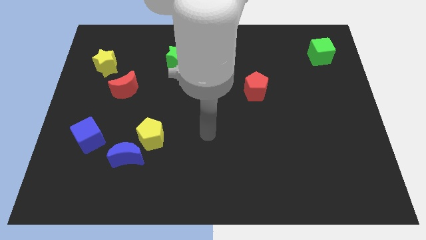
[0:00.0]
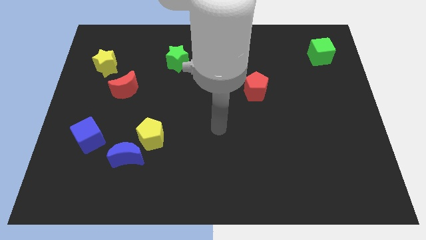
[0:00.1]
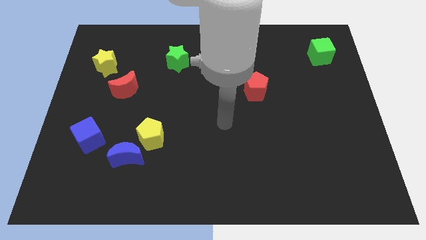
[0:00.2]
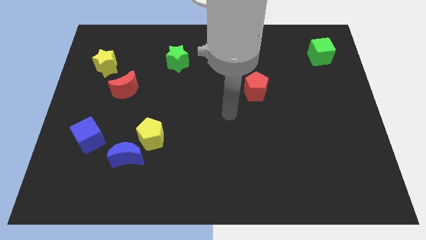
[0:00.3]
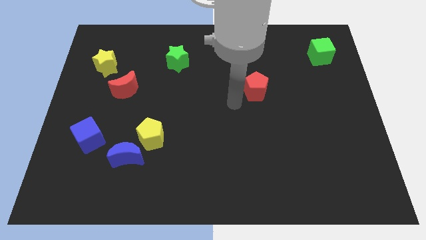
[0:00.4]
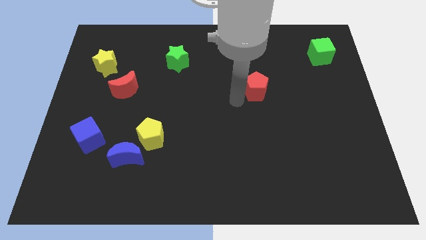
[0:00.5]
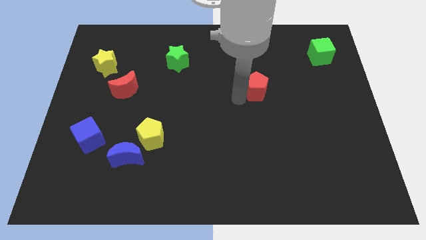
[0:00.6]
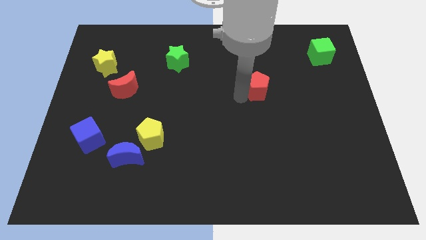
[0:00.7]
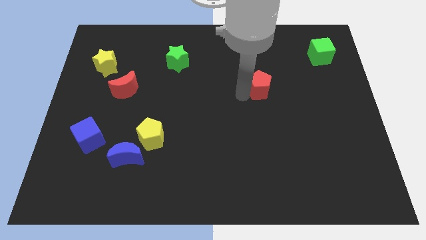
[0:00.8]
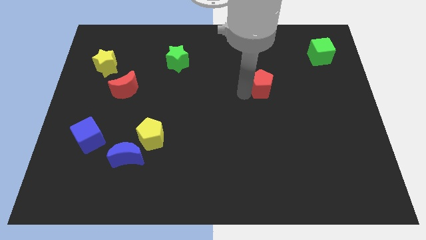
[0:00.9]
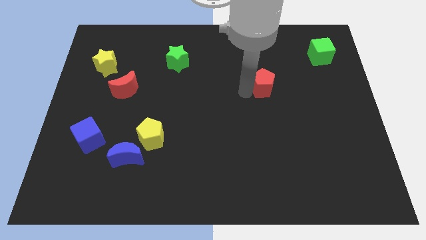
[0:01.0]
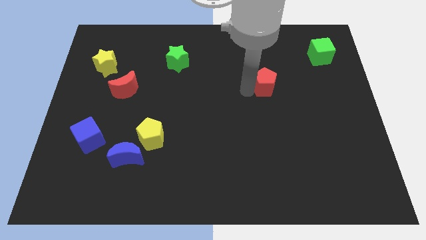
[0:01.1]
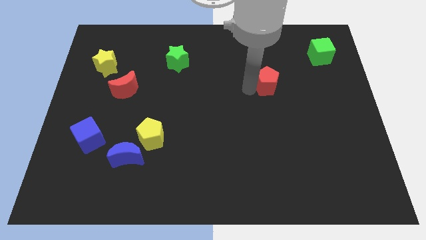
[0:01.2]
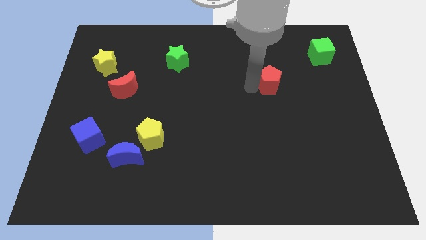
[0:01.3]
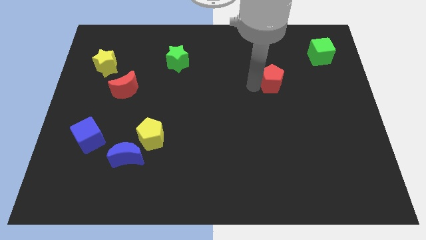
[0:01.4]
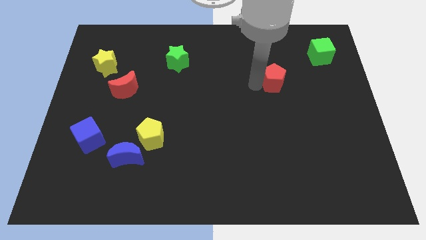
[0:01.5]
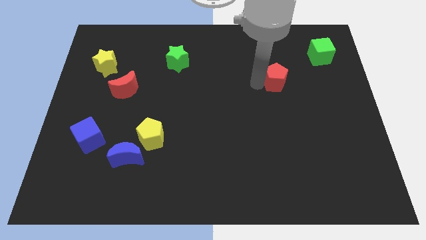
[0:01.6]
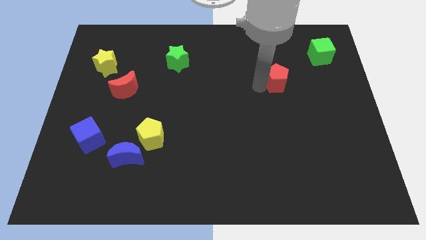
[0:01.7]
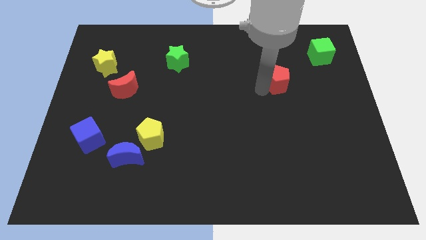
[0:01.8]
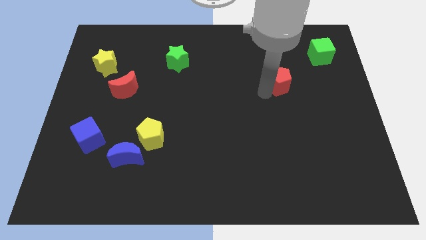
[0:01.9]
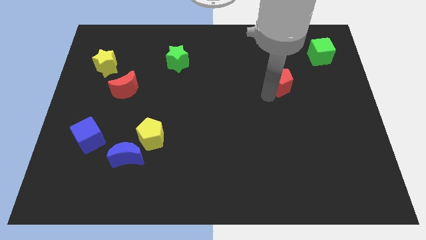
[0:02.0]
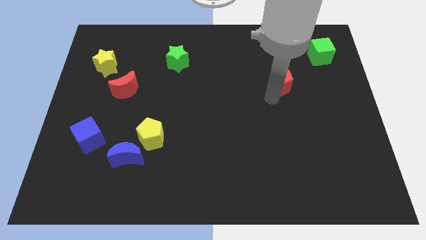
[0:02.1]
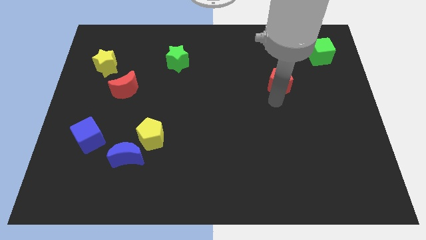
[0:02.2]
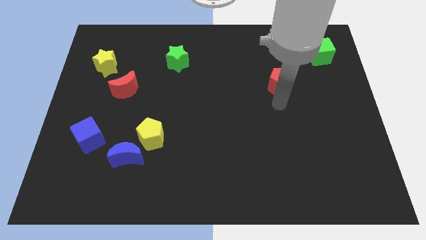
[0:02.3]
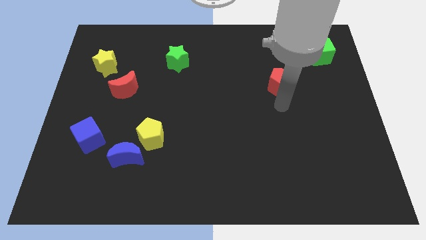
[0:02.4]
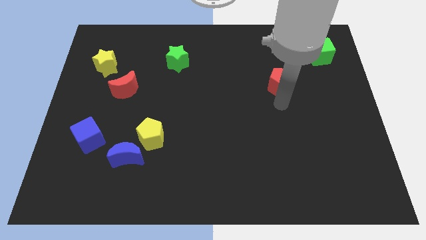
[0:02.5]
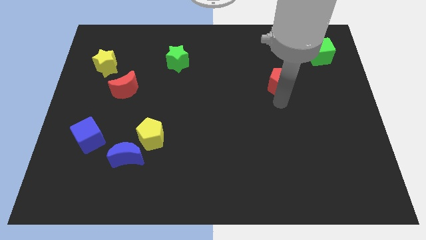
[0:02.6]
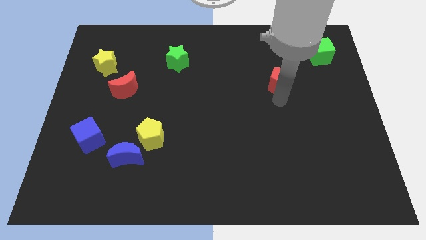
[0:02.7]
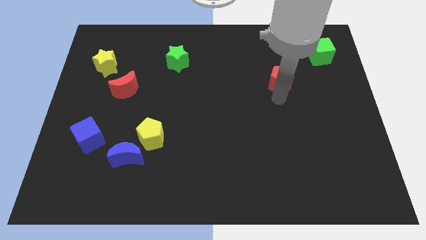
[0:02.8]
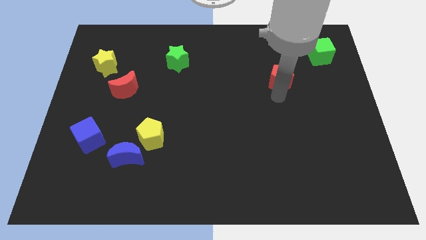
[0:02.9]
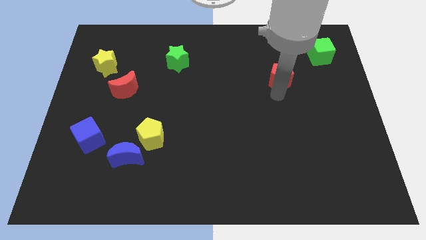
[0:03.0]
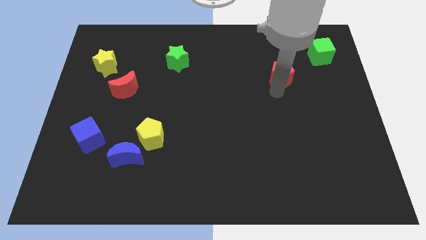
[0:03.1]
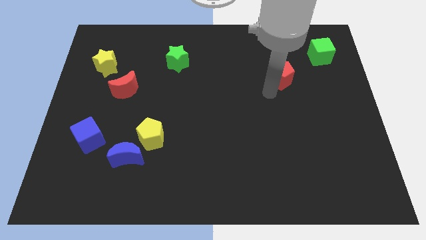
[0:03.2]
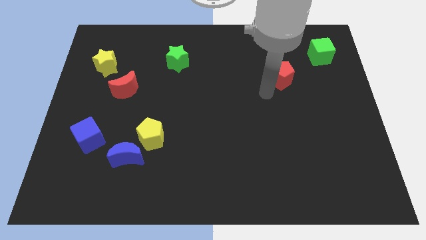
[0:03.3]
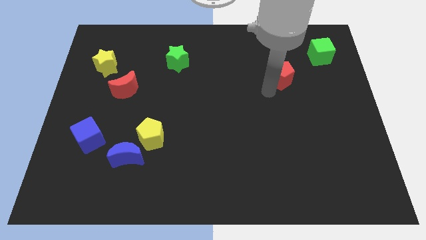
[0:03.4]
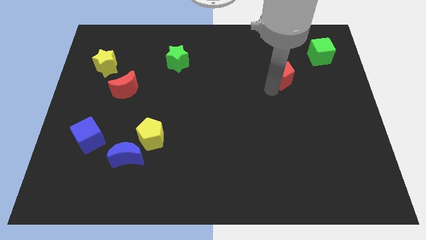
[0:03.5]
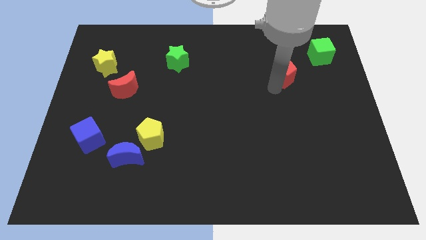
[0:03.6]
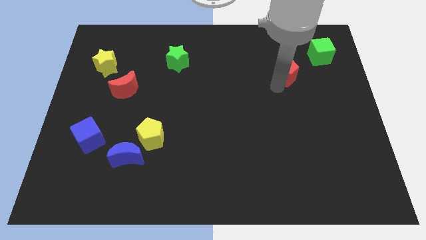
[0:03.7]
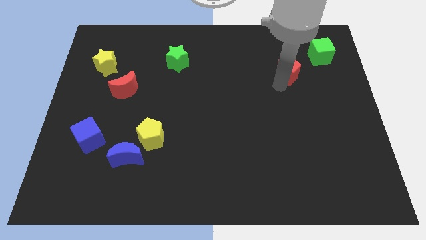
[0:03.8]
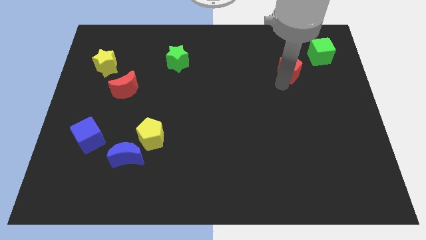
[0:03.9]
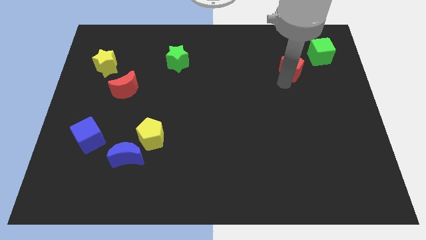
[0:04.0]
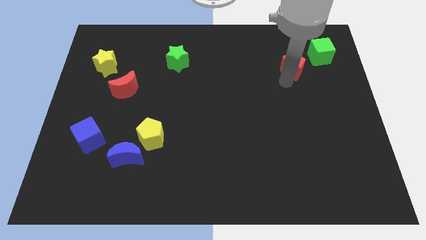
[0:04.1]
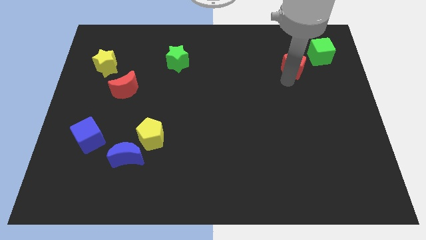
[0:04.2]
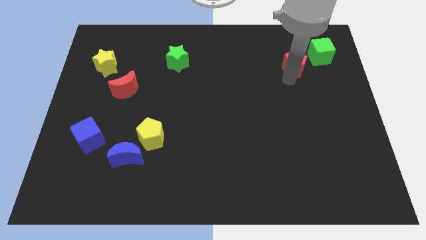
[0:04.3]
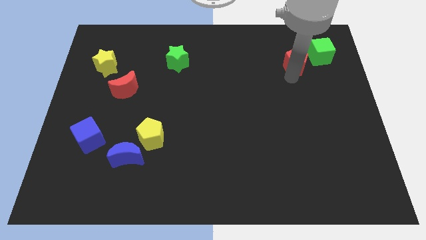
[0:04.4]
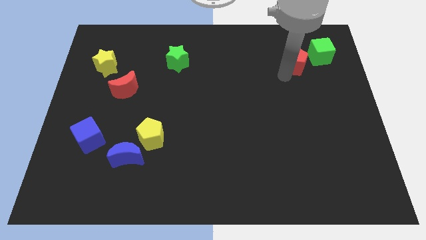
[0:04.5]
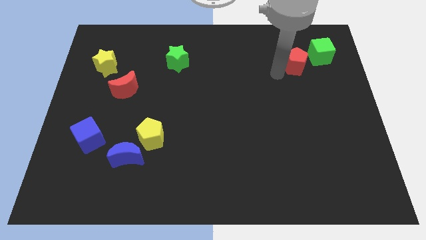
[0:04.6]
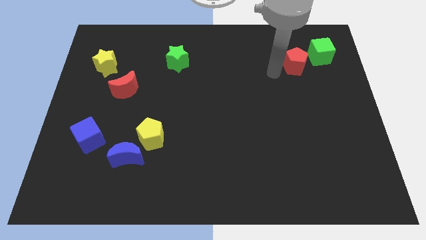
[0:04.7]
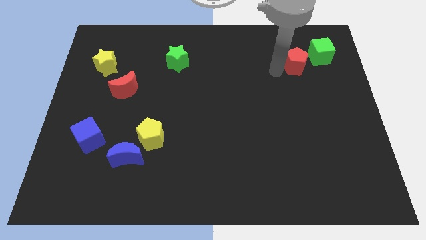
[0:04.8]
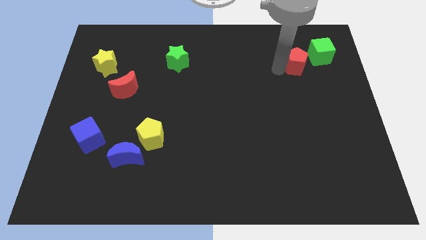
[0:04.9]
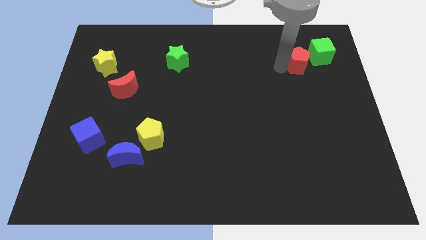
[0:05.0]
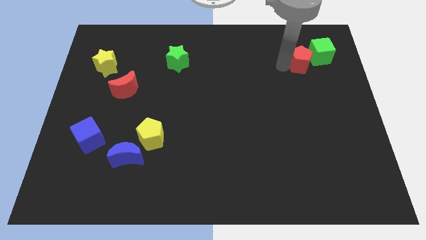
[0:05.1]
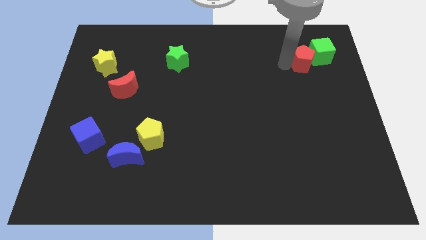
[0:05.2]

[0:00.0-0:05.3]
move the red pentagon to the green cube

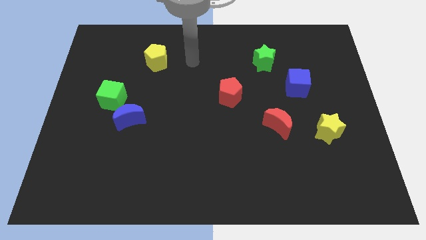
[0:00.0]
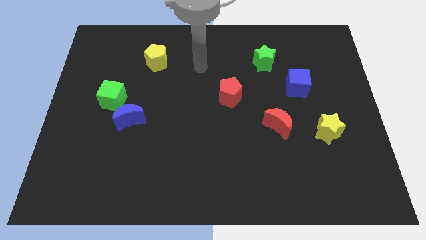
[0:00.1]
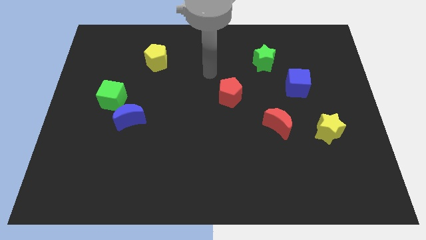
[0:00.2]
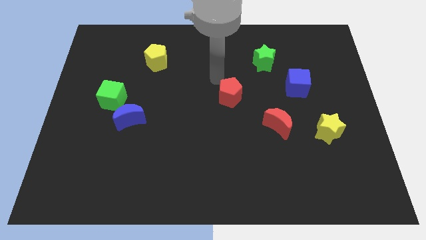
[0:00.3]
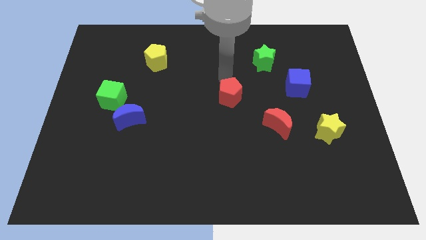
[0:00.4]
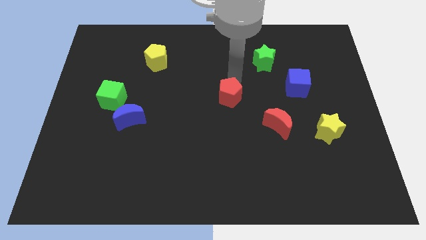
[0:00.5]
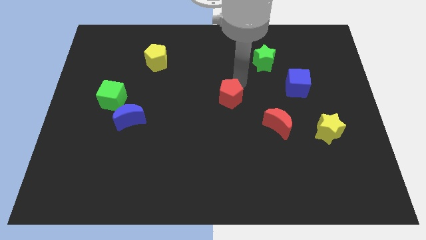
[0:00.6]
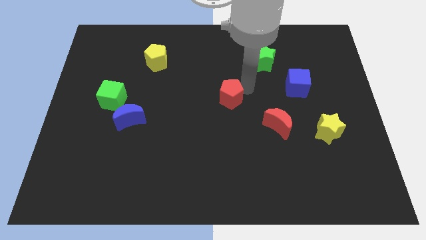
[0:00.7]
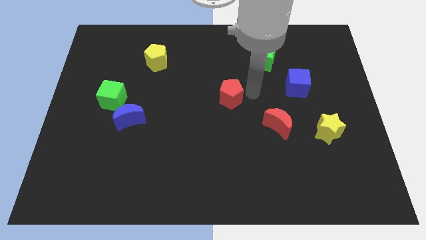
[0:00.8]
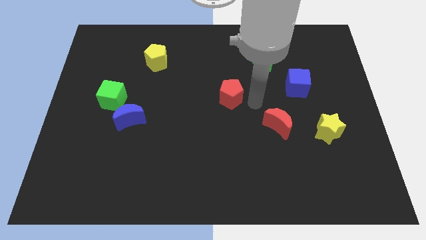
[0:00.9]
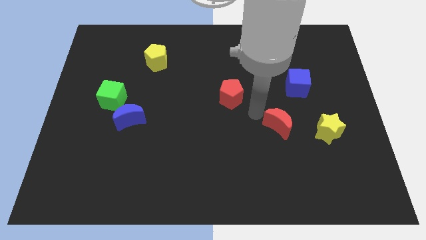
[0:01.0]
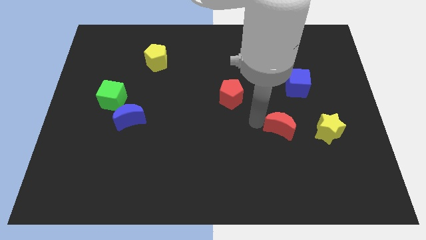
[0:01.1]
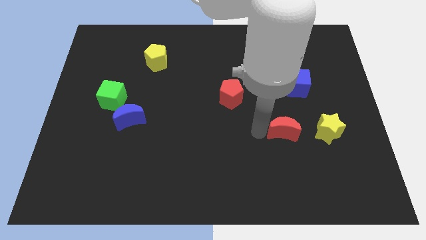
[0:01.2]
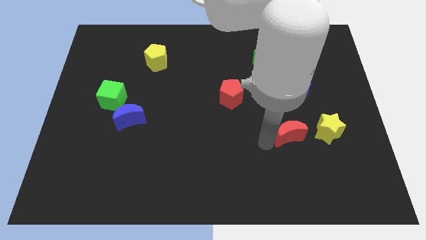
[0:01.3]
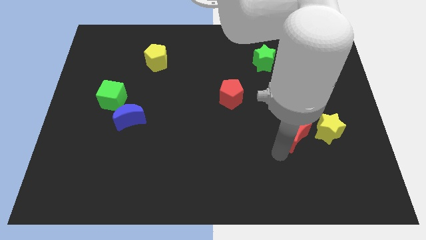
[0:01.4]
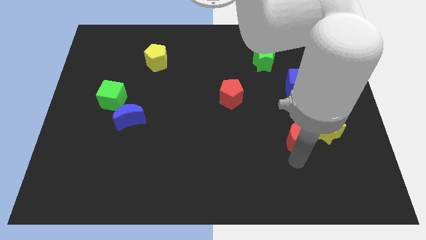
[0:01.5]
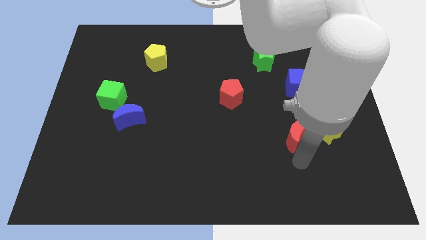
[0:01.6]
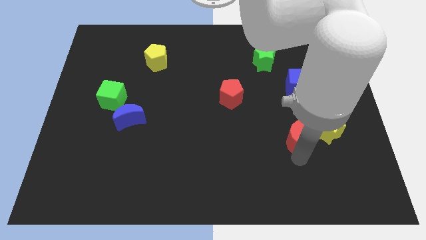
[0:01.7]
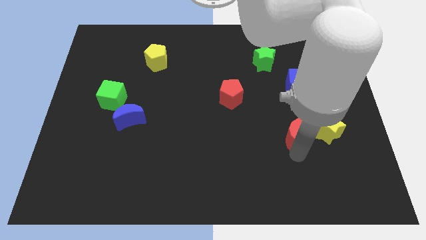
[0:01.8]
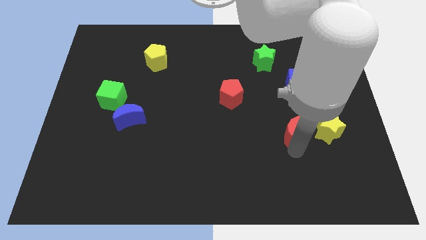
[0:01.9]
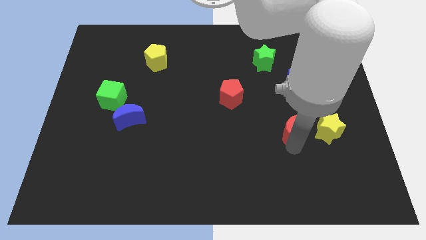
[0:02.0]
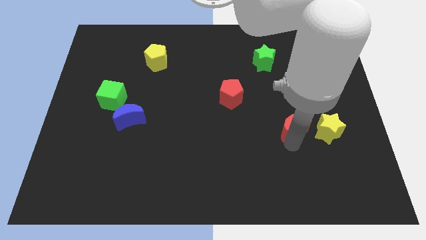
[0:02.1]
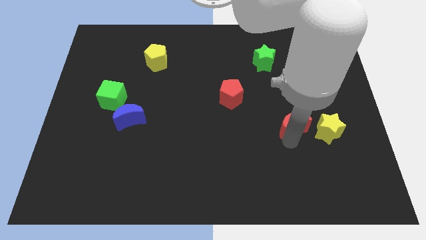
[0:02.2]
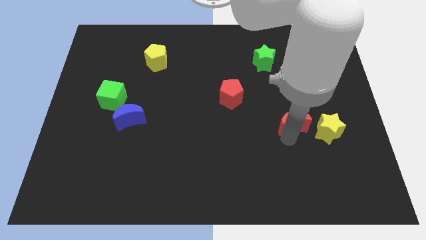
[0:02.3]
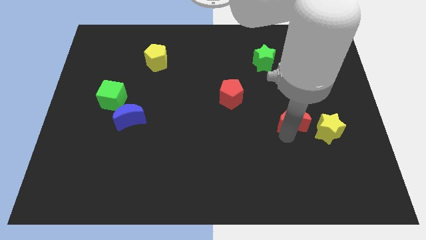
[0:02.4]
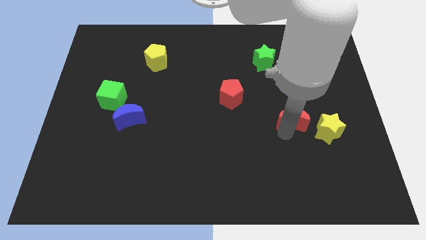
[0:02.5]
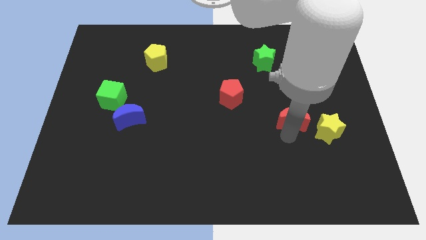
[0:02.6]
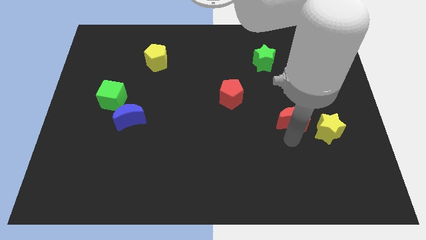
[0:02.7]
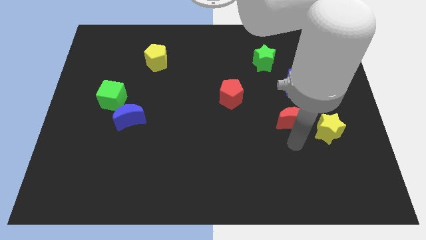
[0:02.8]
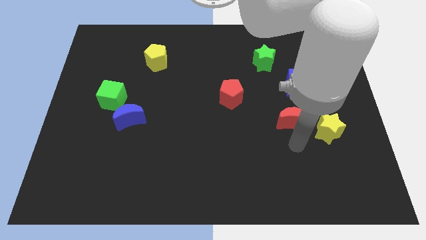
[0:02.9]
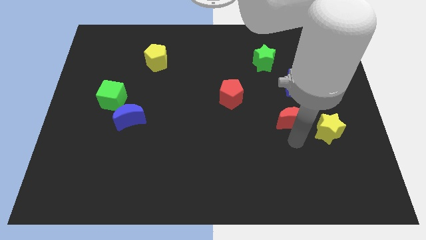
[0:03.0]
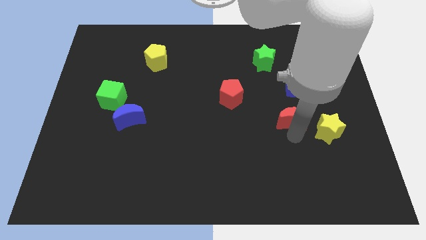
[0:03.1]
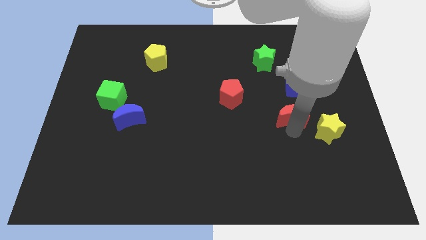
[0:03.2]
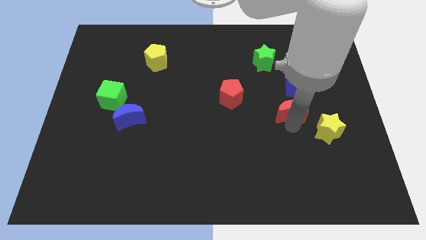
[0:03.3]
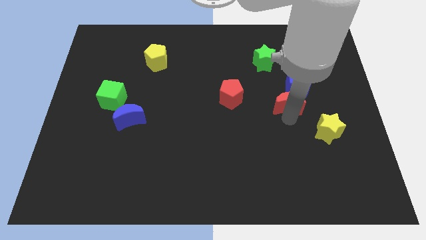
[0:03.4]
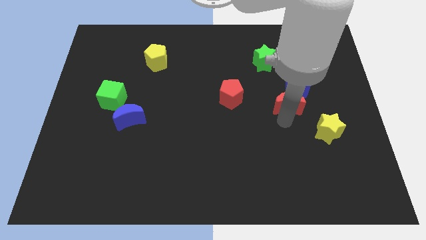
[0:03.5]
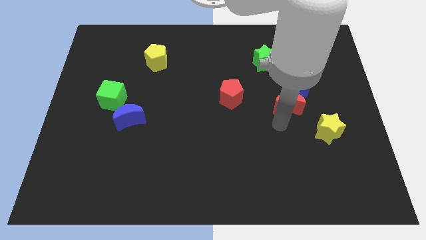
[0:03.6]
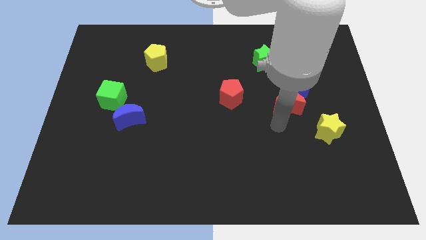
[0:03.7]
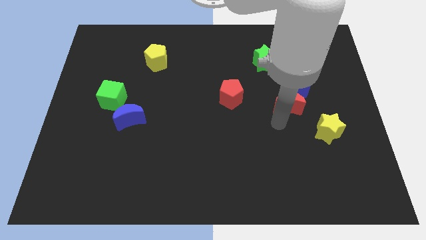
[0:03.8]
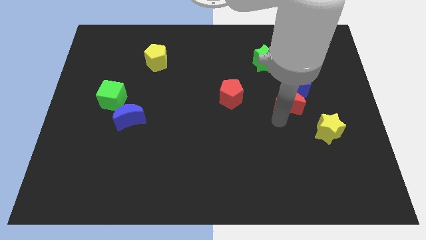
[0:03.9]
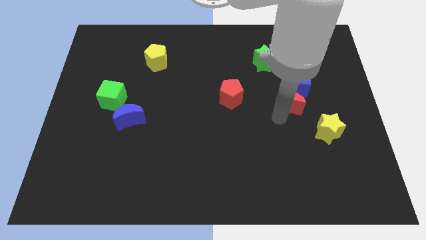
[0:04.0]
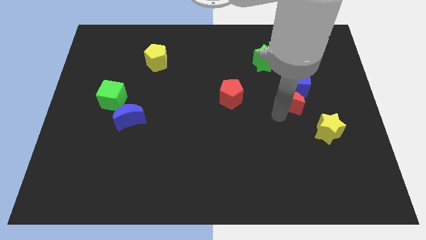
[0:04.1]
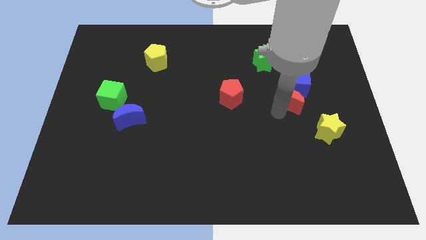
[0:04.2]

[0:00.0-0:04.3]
slide the red moon to the blue cube
